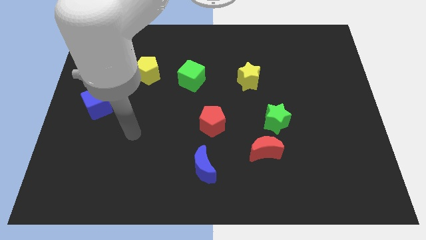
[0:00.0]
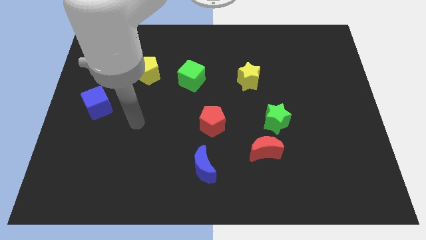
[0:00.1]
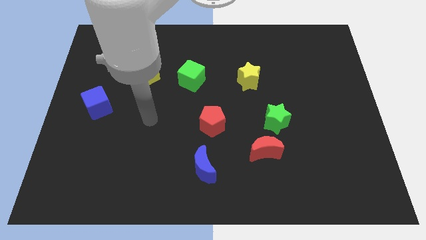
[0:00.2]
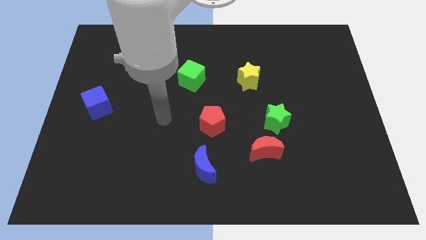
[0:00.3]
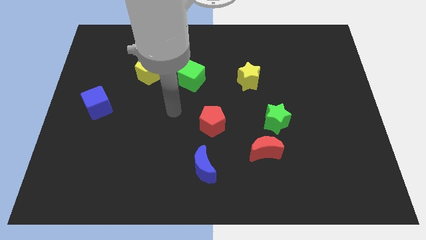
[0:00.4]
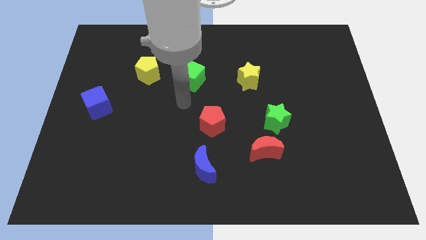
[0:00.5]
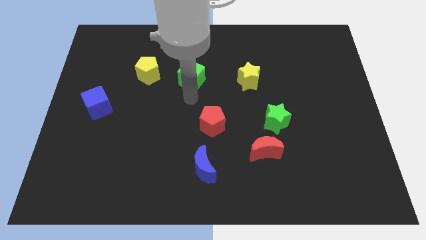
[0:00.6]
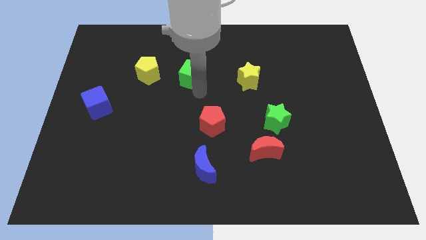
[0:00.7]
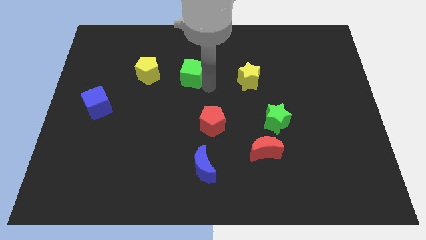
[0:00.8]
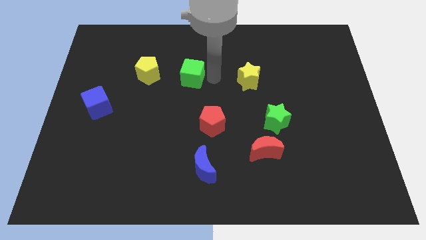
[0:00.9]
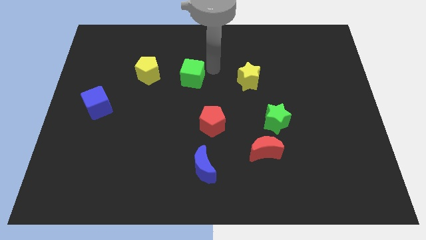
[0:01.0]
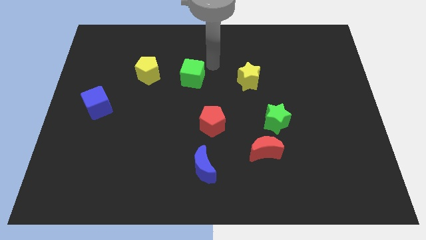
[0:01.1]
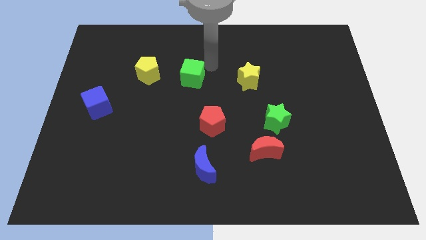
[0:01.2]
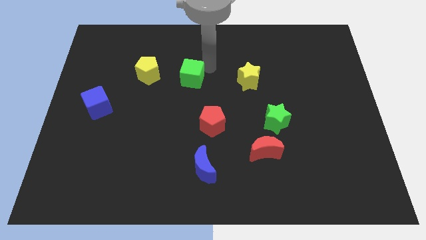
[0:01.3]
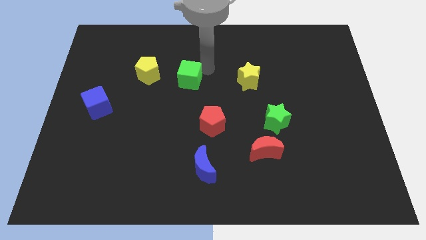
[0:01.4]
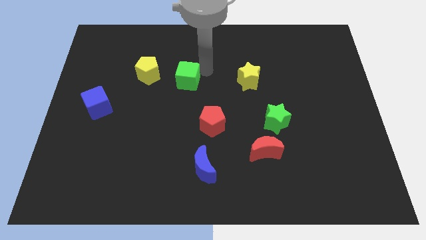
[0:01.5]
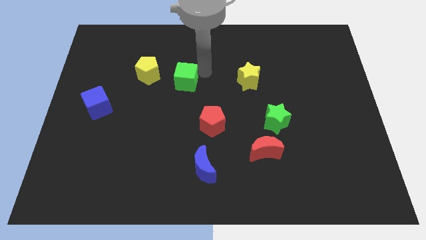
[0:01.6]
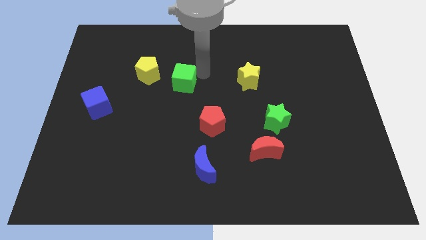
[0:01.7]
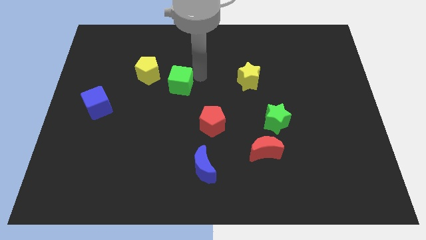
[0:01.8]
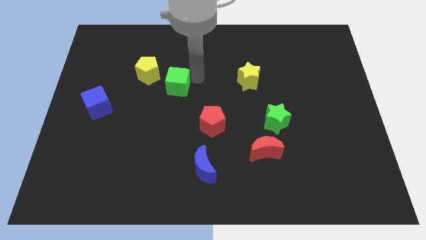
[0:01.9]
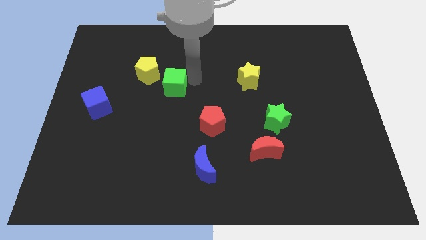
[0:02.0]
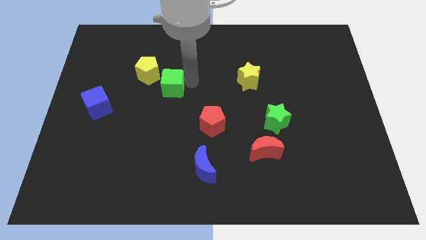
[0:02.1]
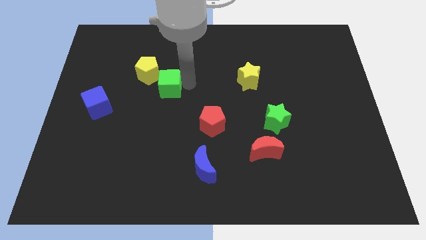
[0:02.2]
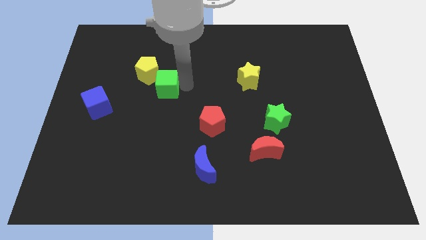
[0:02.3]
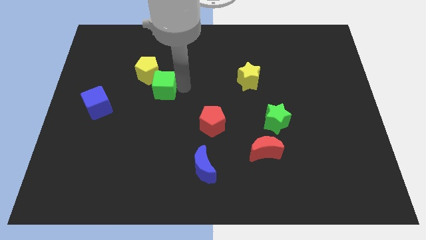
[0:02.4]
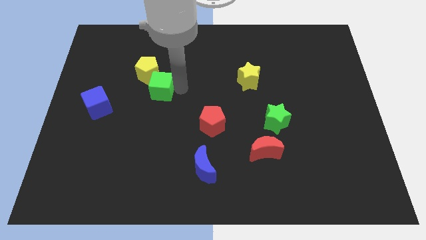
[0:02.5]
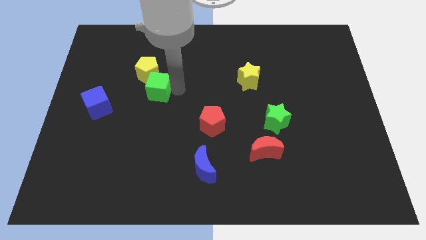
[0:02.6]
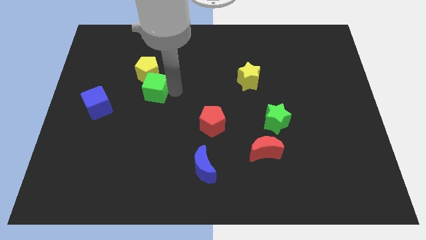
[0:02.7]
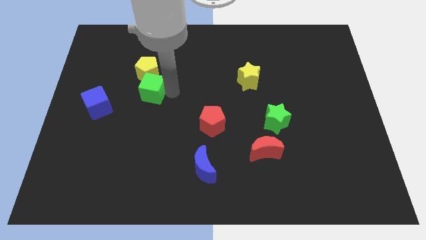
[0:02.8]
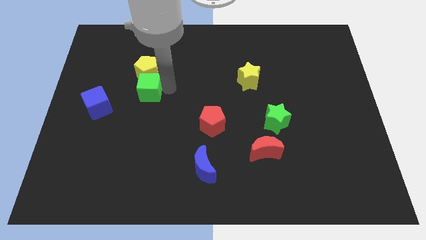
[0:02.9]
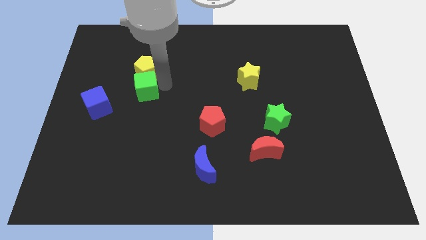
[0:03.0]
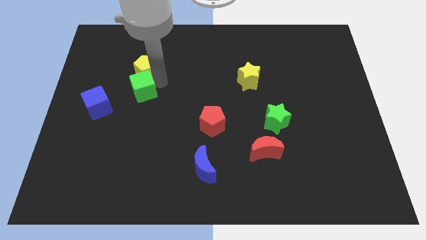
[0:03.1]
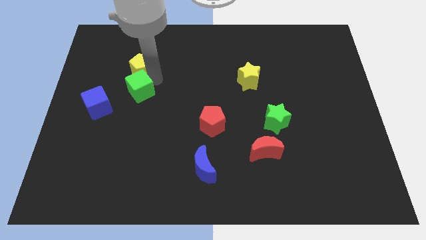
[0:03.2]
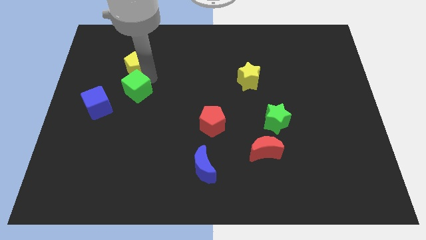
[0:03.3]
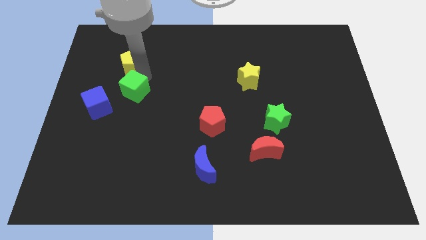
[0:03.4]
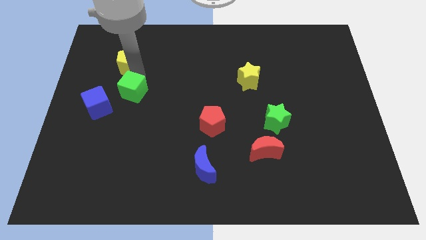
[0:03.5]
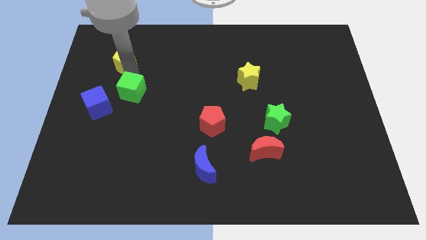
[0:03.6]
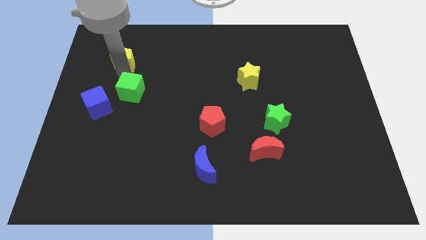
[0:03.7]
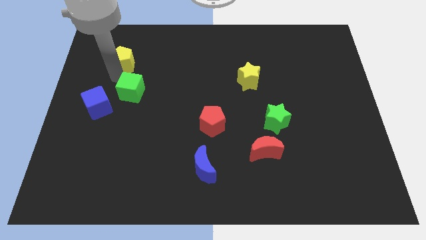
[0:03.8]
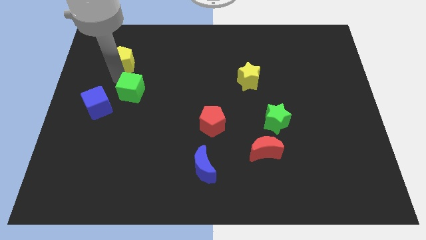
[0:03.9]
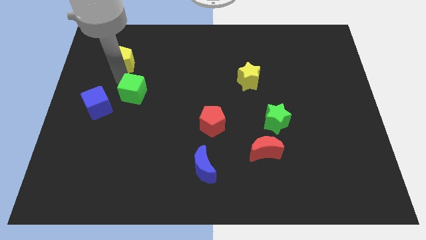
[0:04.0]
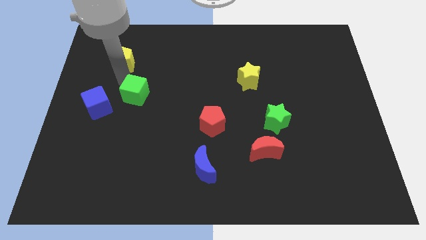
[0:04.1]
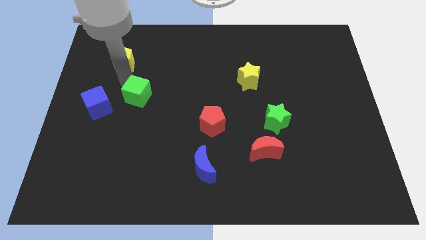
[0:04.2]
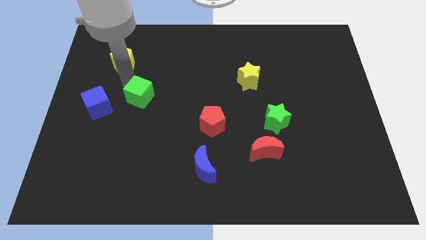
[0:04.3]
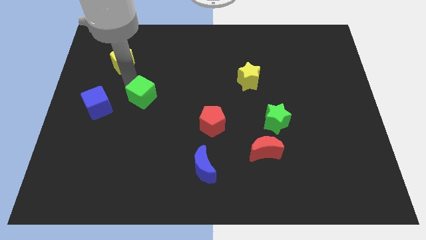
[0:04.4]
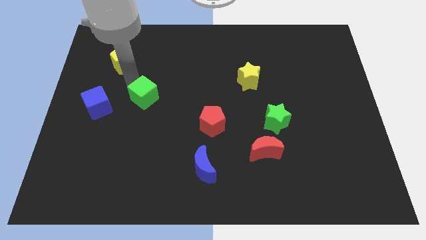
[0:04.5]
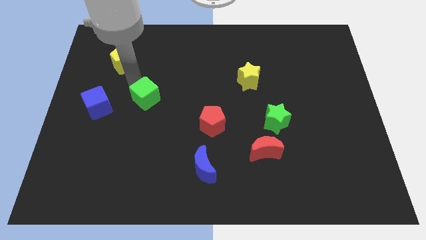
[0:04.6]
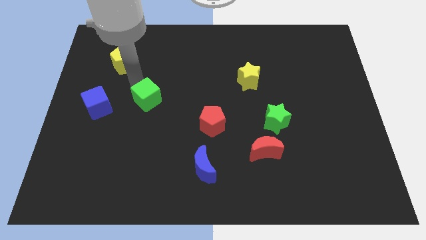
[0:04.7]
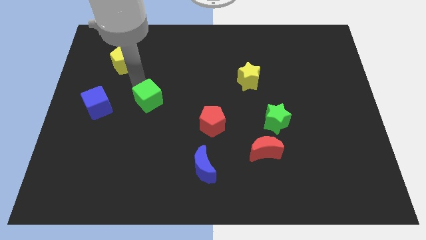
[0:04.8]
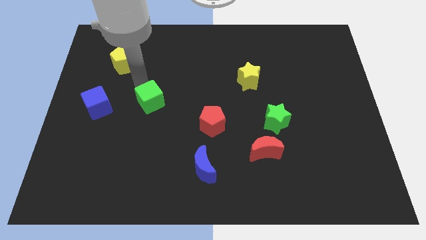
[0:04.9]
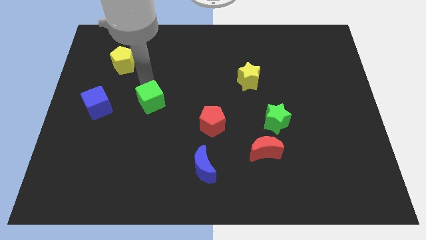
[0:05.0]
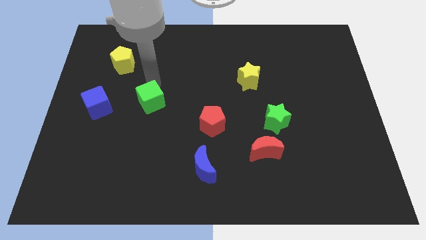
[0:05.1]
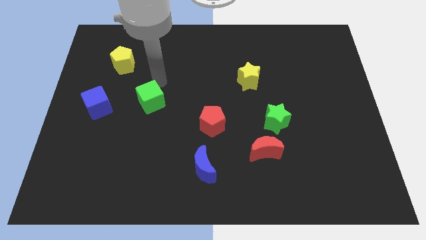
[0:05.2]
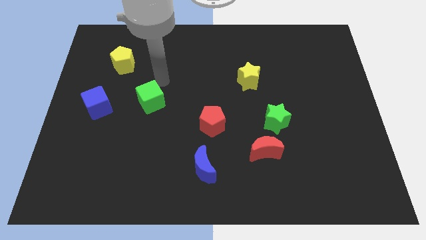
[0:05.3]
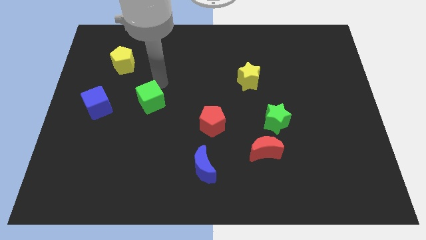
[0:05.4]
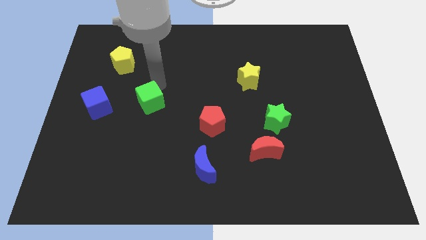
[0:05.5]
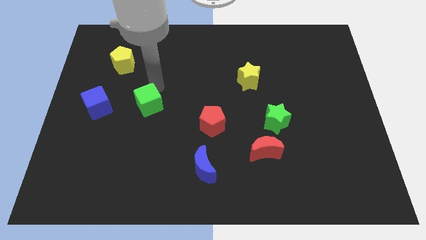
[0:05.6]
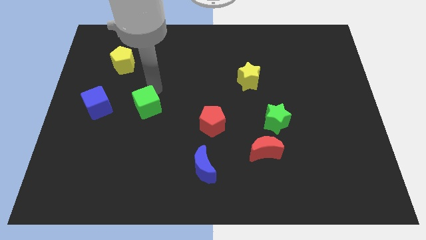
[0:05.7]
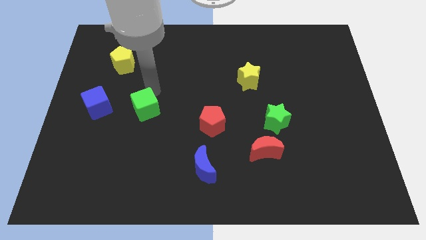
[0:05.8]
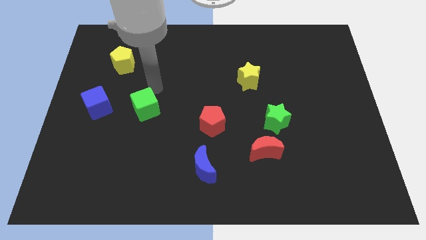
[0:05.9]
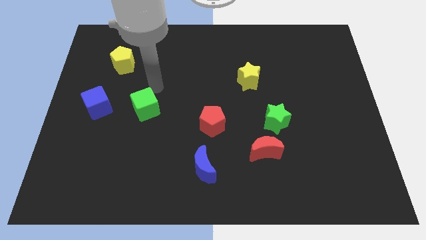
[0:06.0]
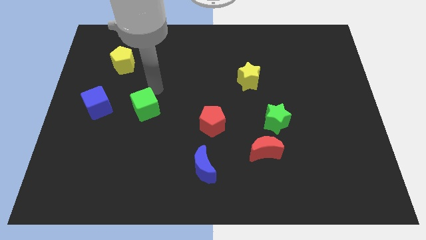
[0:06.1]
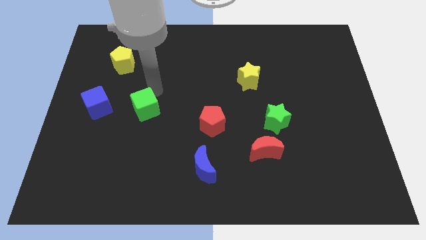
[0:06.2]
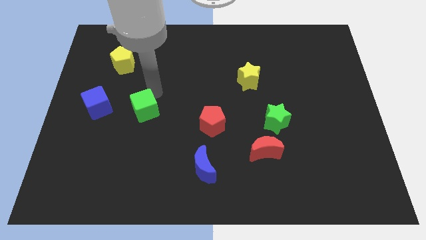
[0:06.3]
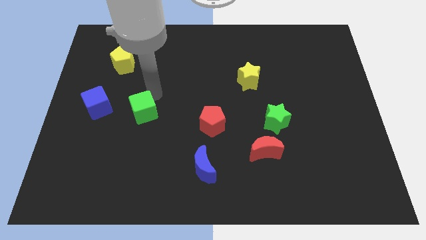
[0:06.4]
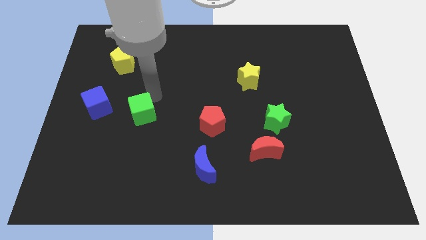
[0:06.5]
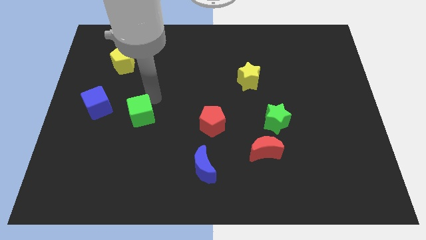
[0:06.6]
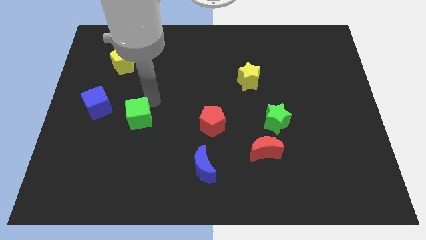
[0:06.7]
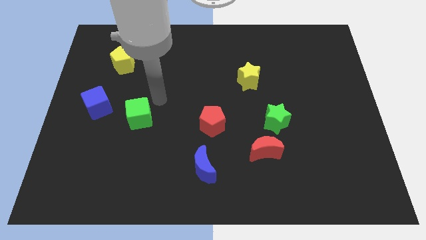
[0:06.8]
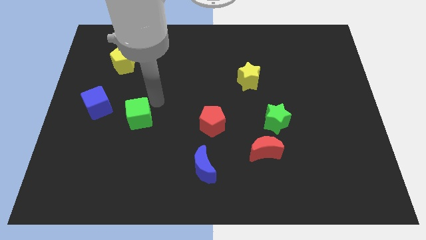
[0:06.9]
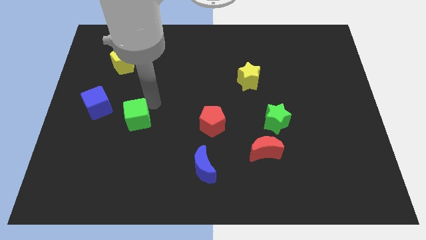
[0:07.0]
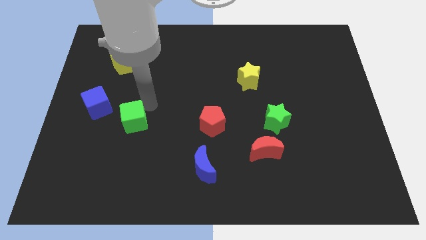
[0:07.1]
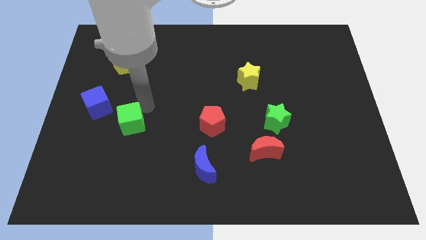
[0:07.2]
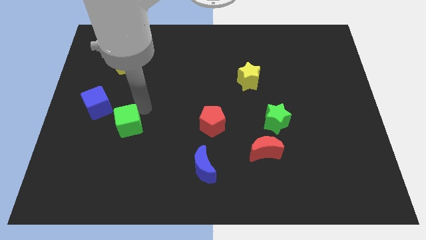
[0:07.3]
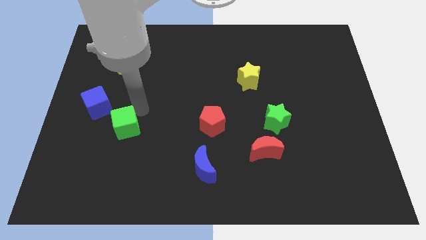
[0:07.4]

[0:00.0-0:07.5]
move the green cube down and left

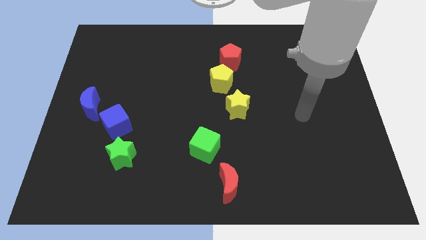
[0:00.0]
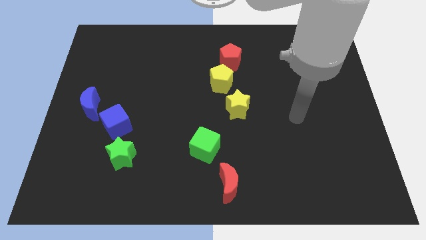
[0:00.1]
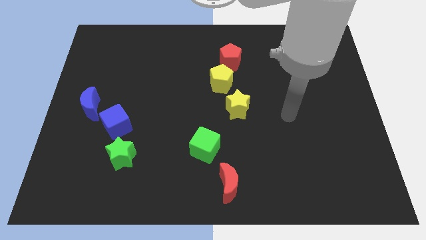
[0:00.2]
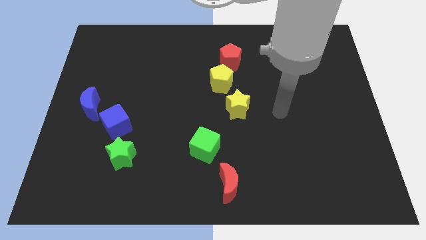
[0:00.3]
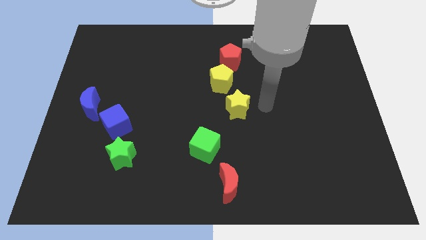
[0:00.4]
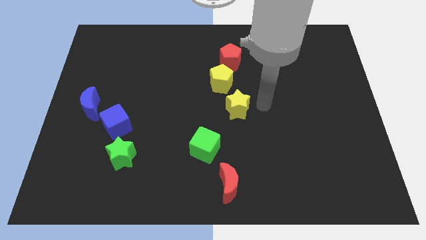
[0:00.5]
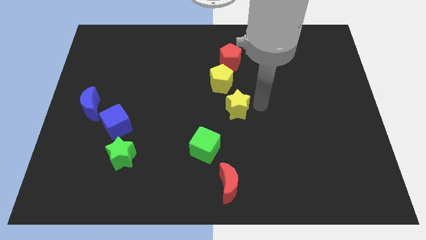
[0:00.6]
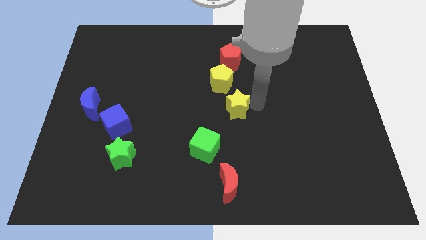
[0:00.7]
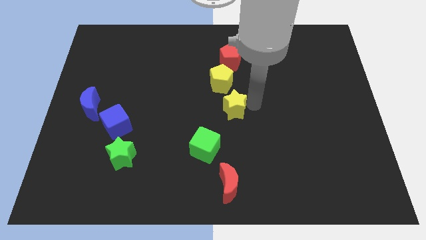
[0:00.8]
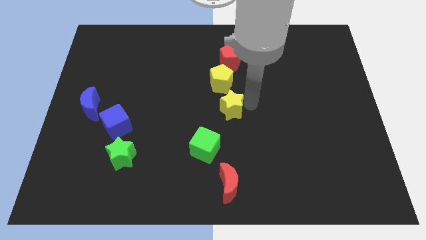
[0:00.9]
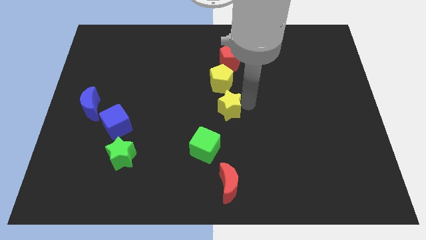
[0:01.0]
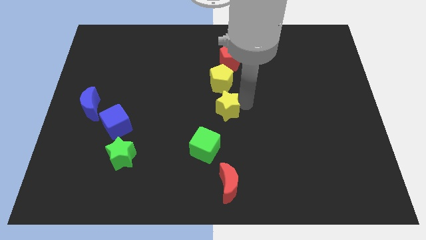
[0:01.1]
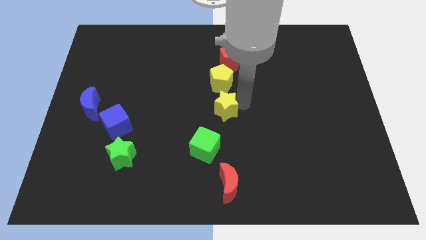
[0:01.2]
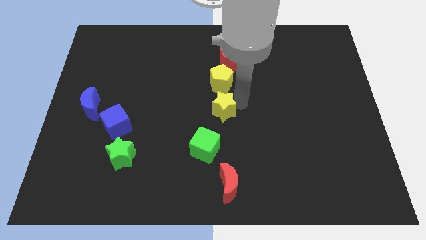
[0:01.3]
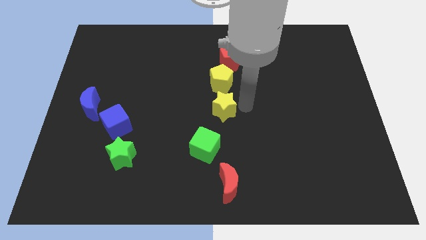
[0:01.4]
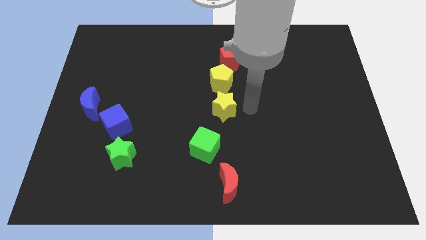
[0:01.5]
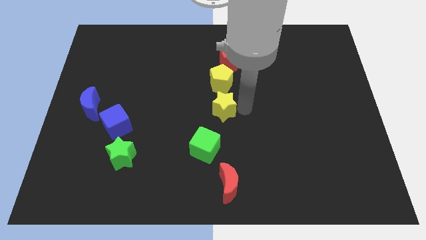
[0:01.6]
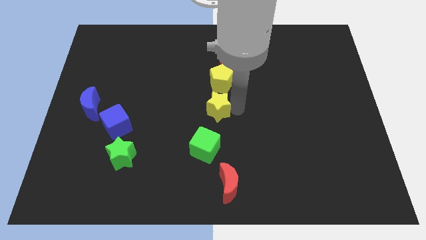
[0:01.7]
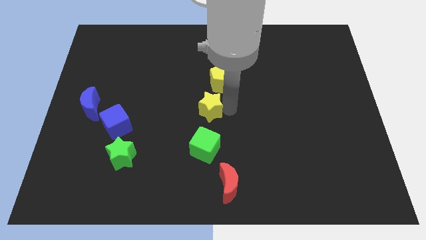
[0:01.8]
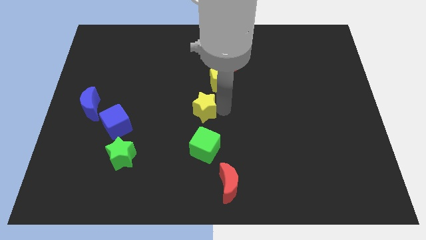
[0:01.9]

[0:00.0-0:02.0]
push the yellow star a little bit to the left
